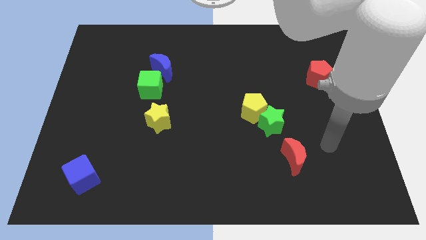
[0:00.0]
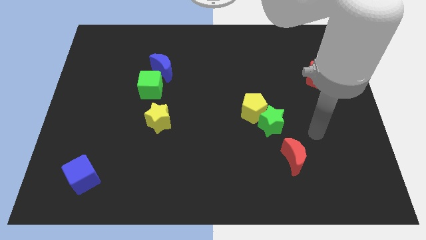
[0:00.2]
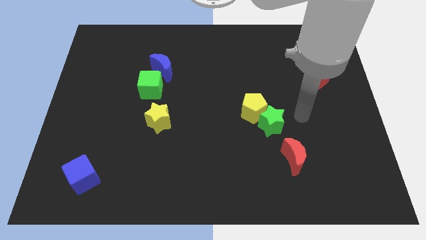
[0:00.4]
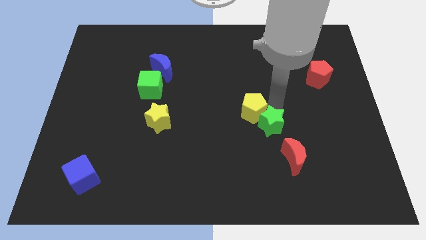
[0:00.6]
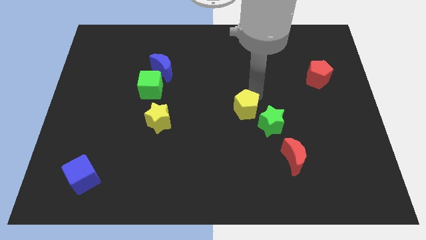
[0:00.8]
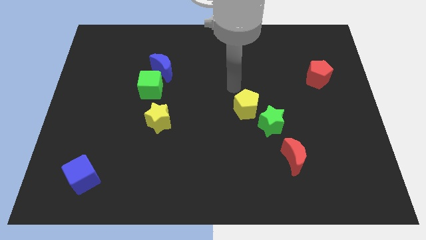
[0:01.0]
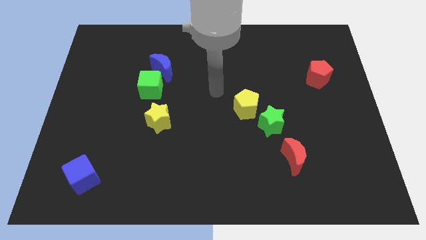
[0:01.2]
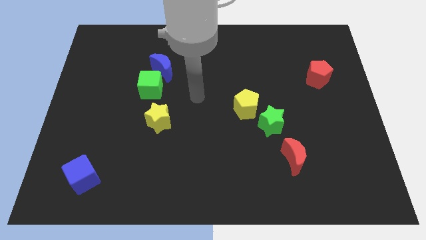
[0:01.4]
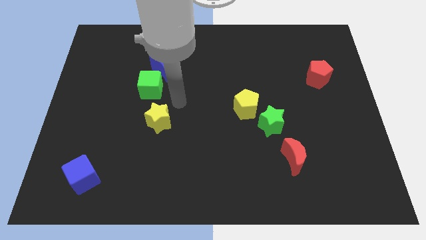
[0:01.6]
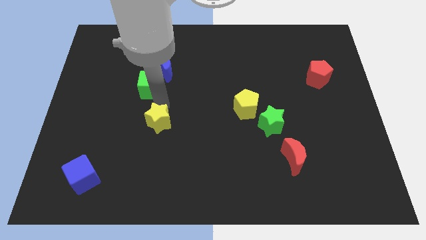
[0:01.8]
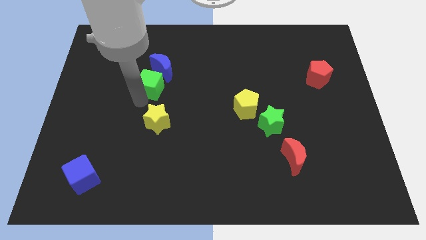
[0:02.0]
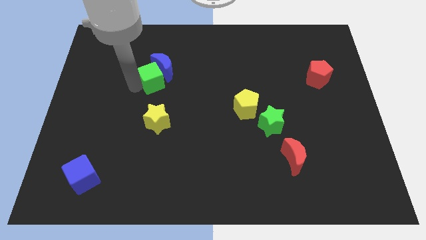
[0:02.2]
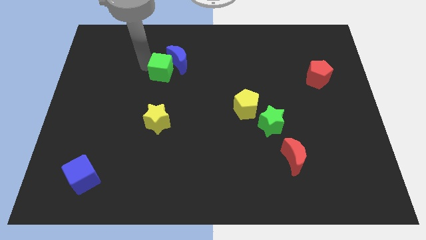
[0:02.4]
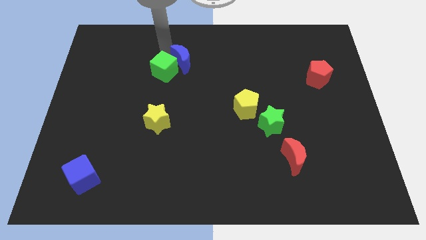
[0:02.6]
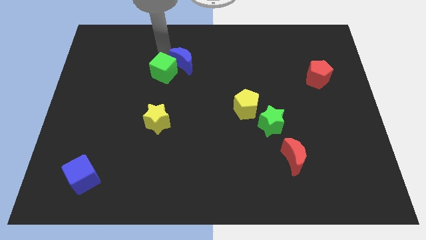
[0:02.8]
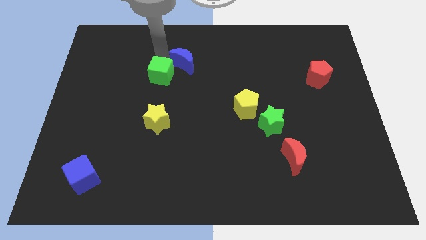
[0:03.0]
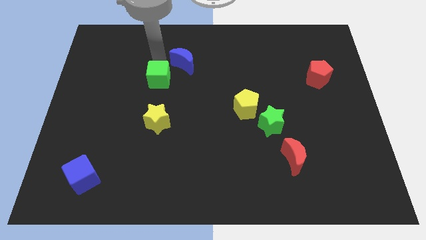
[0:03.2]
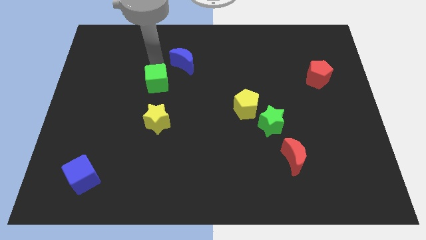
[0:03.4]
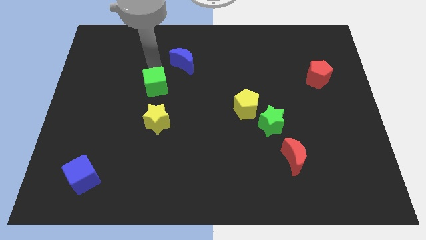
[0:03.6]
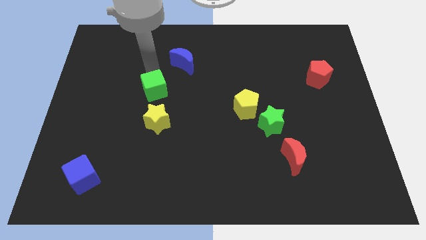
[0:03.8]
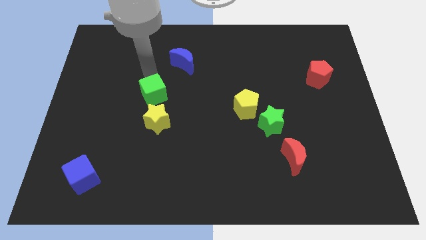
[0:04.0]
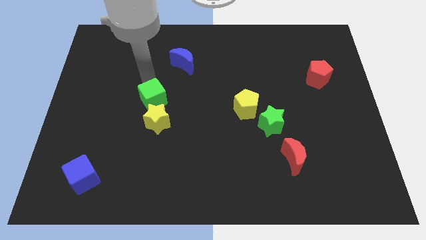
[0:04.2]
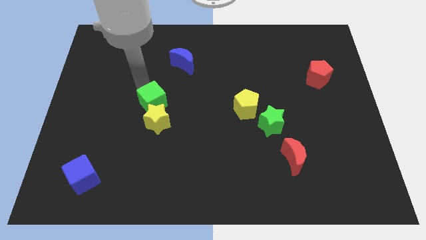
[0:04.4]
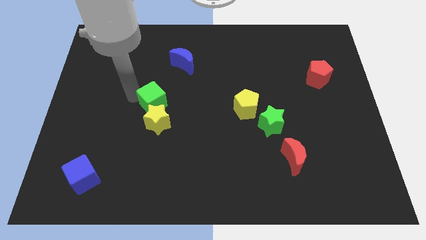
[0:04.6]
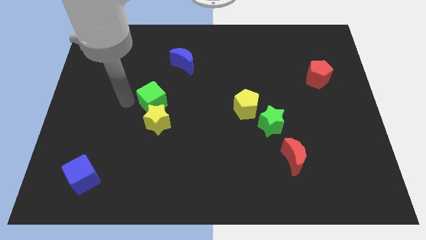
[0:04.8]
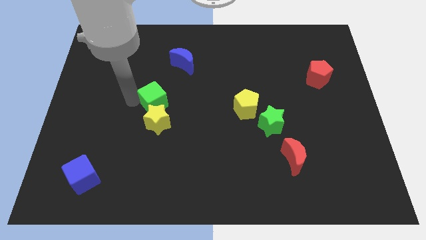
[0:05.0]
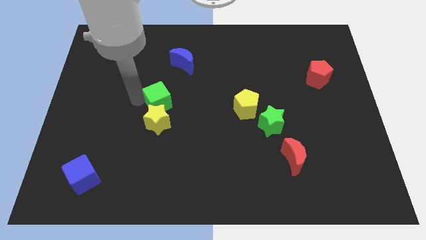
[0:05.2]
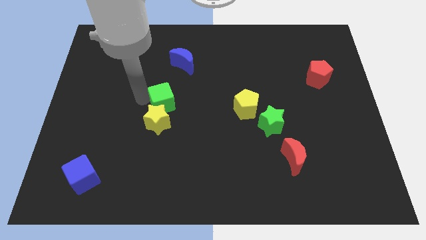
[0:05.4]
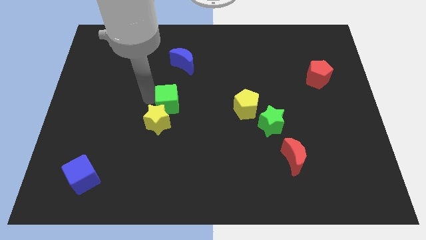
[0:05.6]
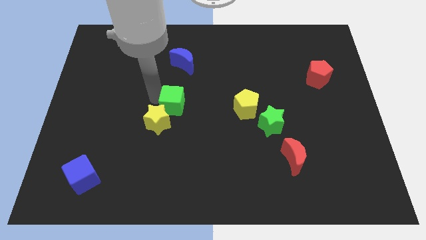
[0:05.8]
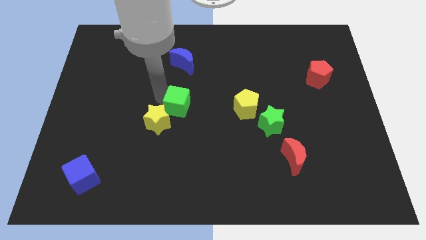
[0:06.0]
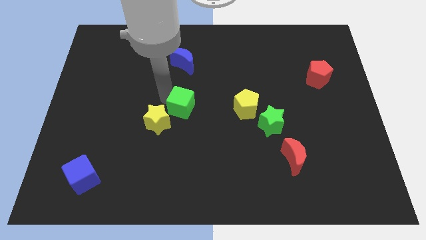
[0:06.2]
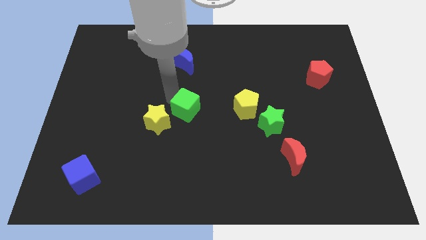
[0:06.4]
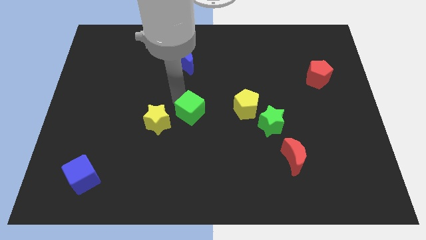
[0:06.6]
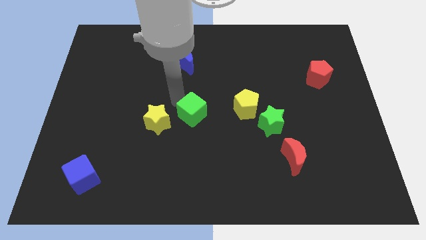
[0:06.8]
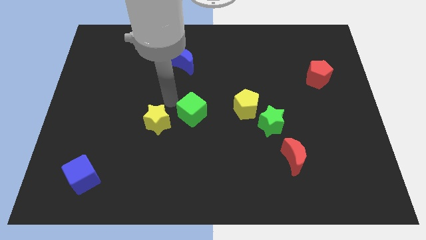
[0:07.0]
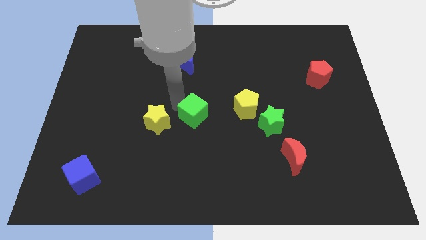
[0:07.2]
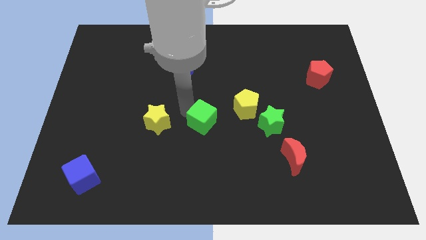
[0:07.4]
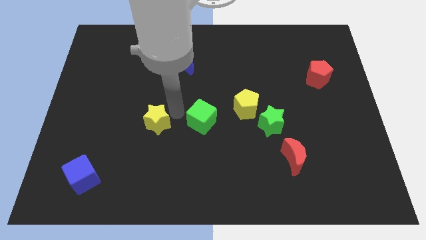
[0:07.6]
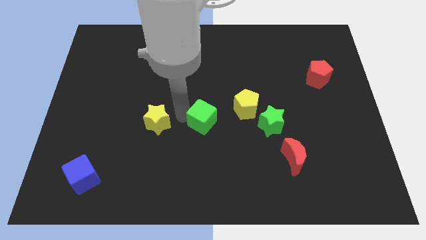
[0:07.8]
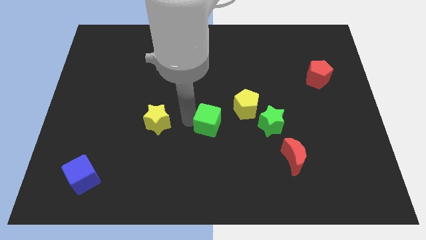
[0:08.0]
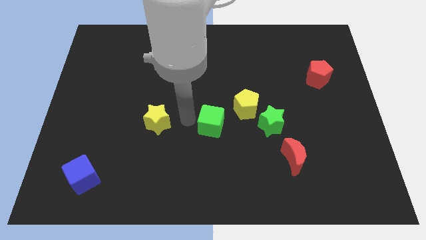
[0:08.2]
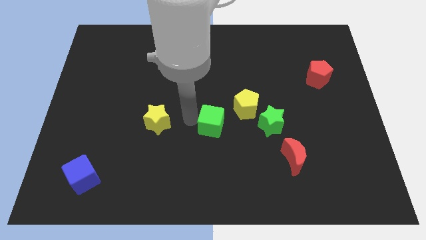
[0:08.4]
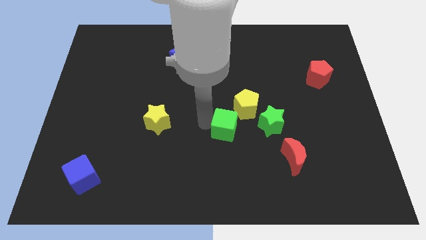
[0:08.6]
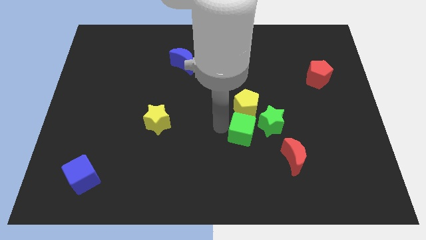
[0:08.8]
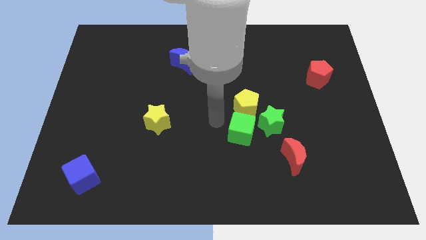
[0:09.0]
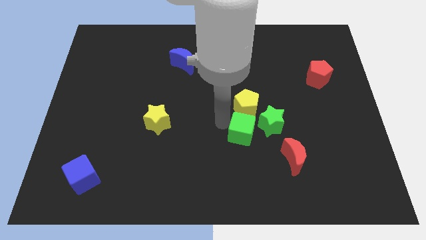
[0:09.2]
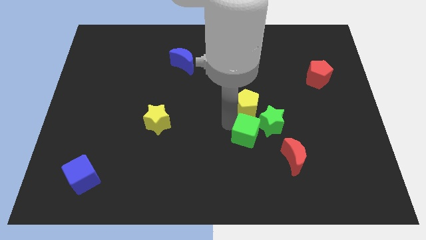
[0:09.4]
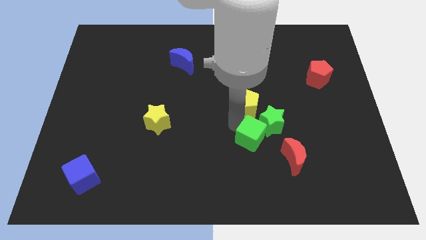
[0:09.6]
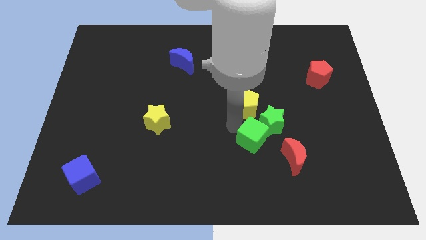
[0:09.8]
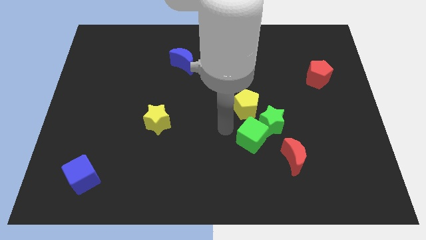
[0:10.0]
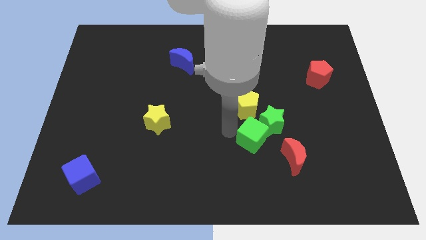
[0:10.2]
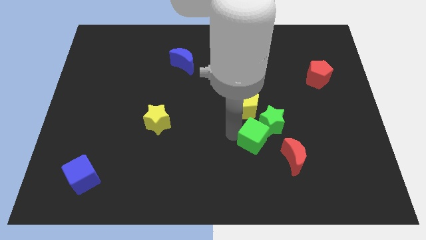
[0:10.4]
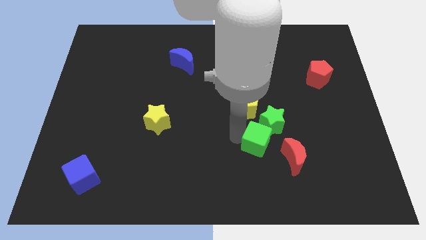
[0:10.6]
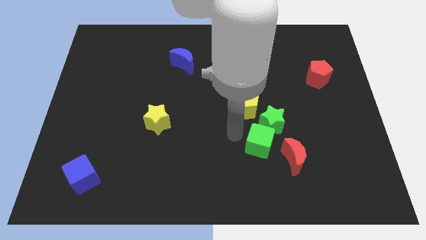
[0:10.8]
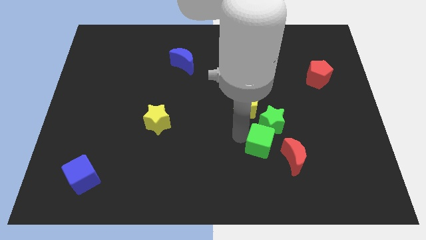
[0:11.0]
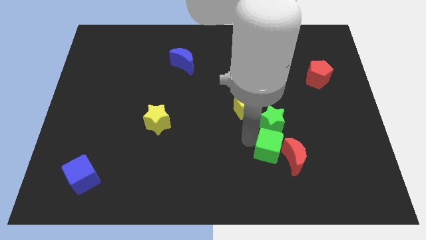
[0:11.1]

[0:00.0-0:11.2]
push the green cube close to the red moon

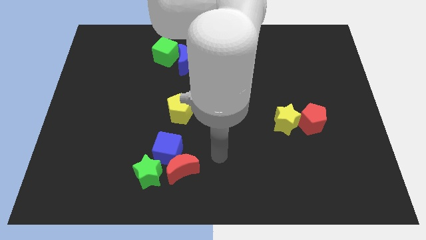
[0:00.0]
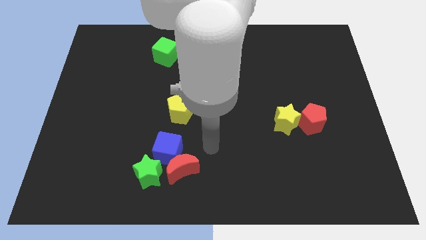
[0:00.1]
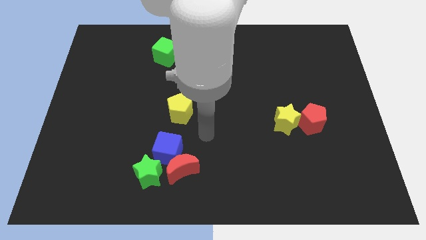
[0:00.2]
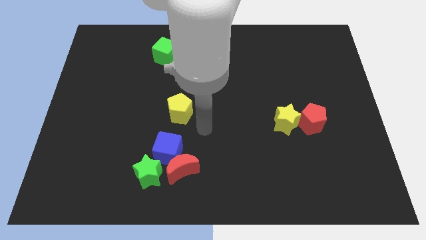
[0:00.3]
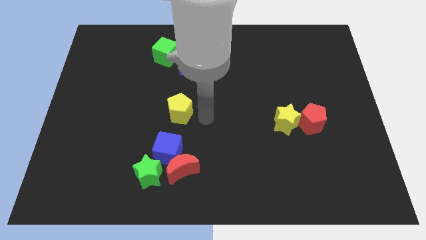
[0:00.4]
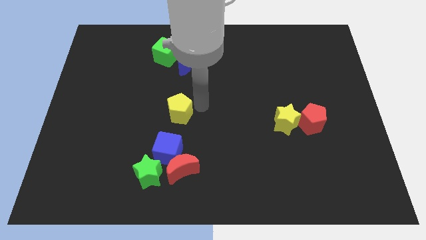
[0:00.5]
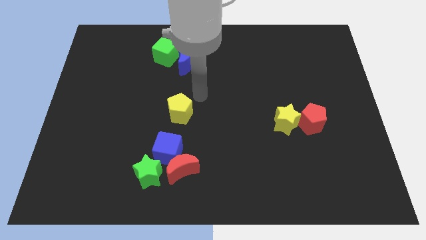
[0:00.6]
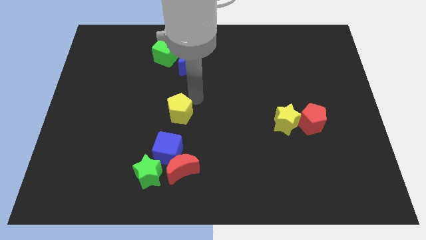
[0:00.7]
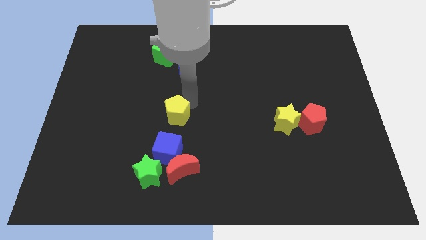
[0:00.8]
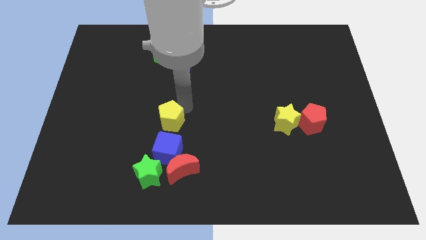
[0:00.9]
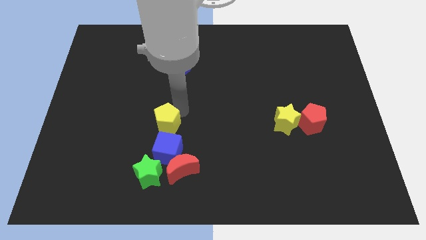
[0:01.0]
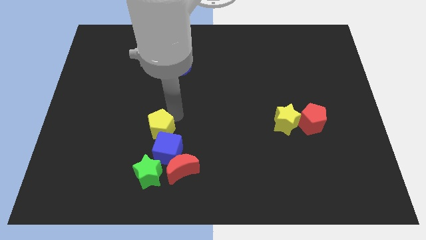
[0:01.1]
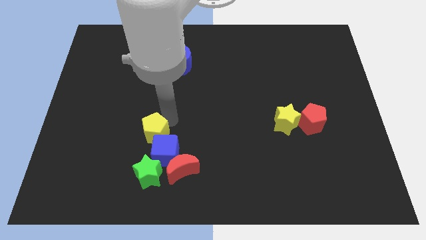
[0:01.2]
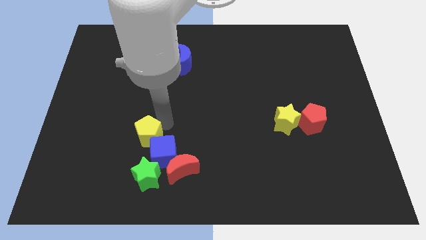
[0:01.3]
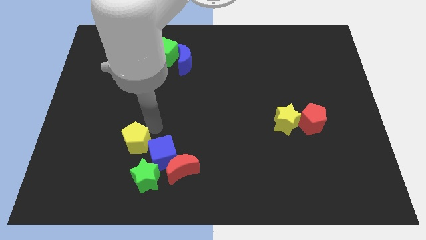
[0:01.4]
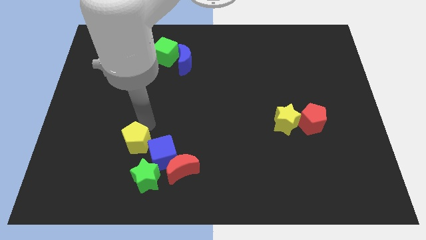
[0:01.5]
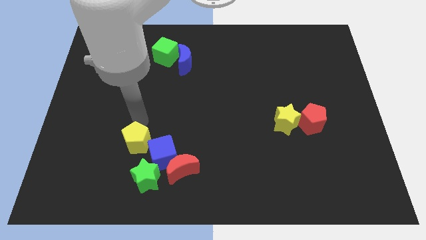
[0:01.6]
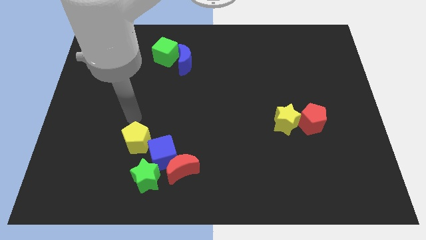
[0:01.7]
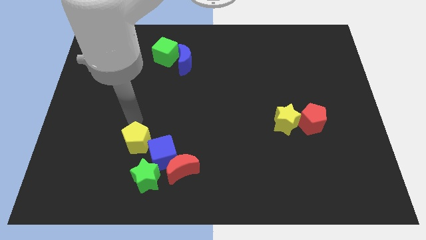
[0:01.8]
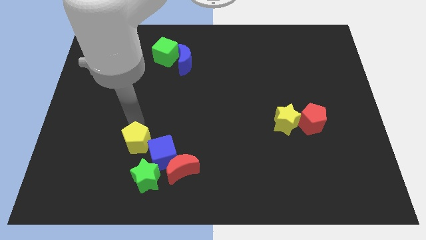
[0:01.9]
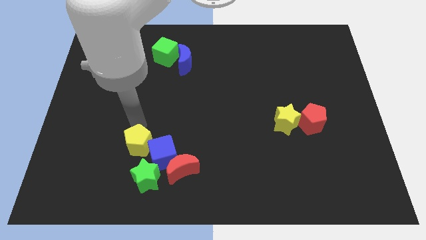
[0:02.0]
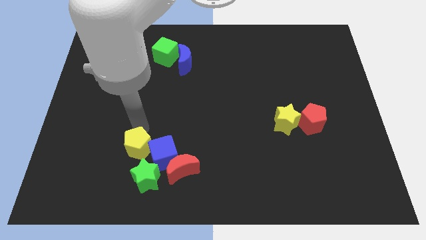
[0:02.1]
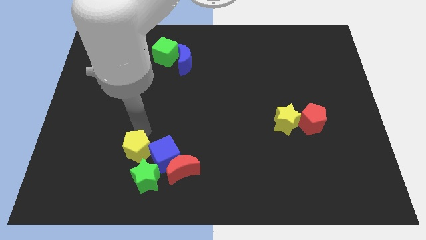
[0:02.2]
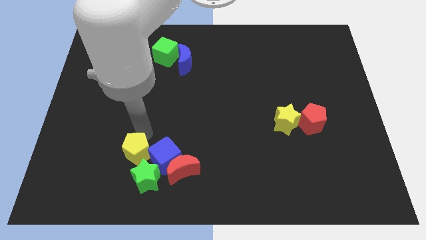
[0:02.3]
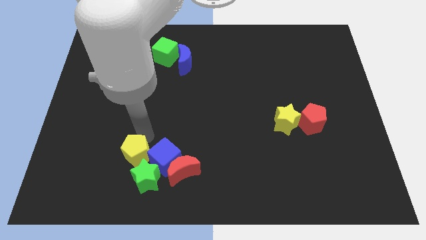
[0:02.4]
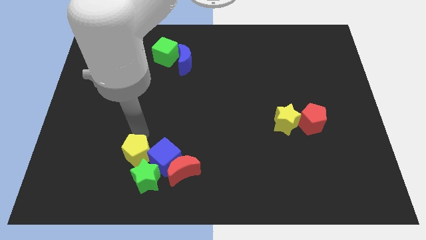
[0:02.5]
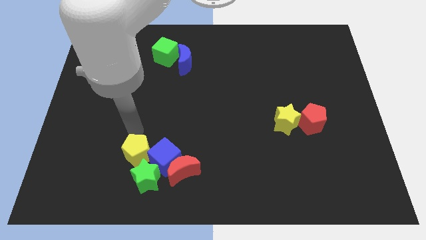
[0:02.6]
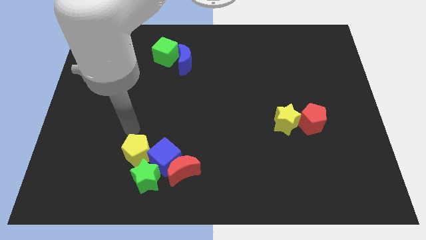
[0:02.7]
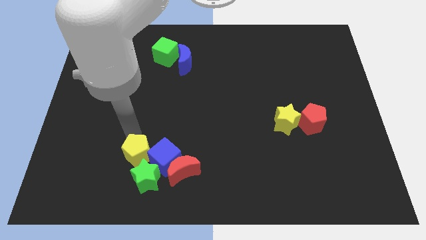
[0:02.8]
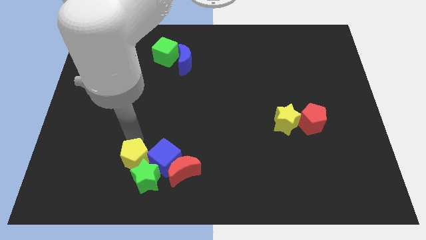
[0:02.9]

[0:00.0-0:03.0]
put the yellow pentagon next to the green star
